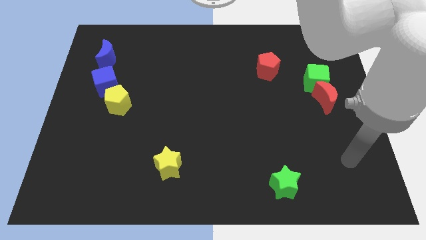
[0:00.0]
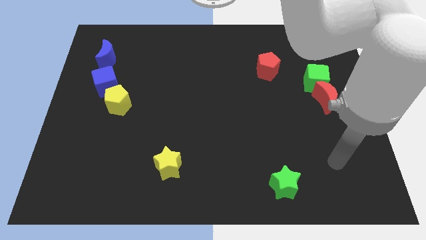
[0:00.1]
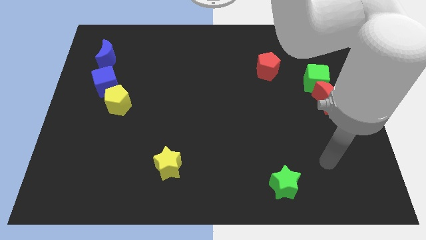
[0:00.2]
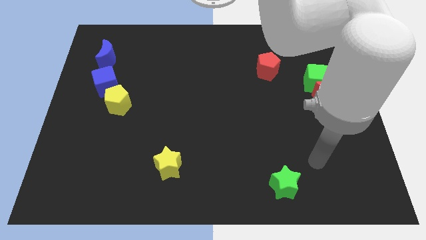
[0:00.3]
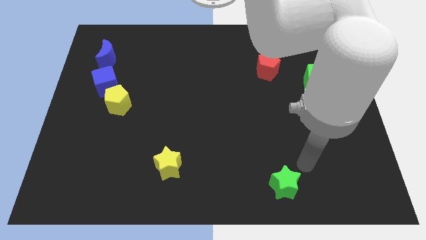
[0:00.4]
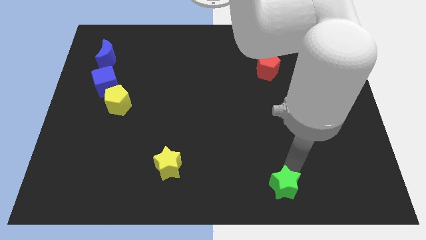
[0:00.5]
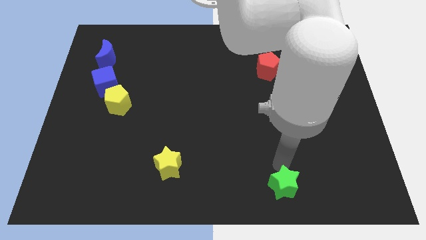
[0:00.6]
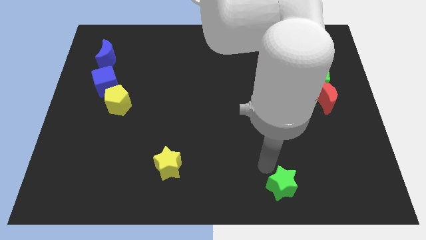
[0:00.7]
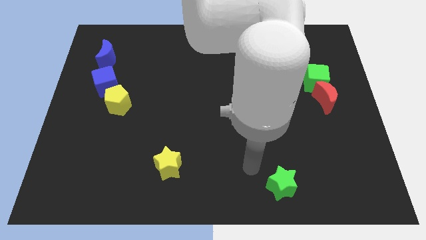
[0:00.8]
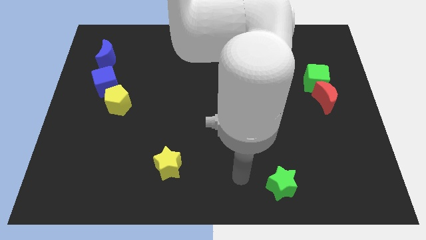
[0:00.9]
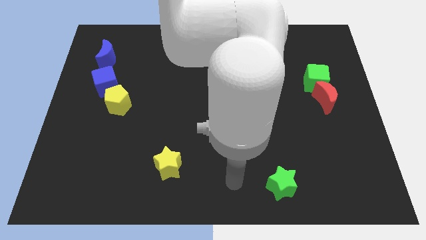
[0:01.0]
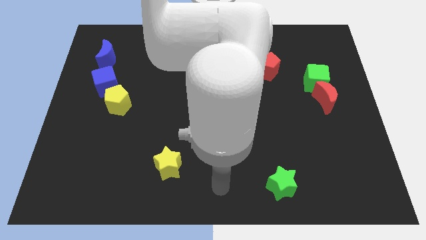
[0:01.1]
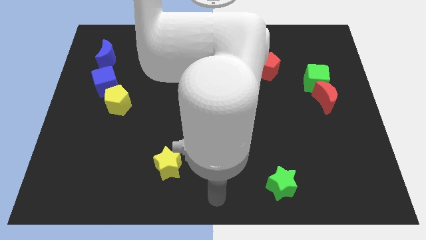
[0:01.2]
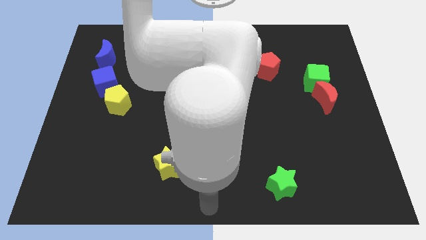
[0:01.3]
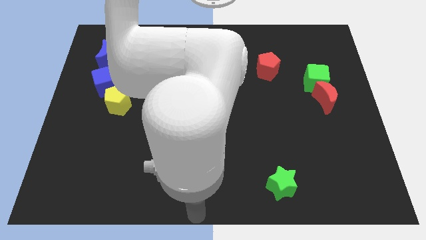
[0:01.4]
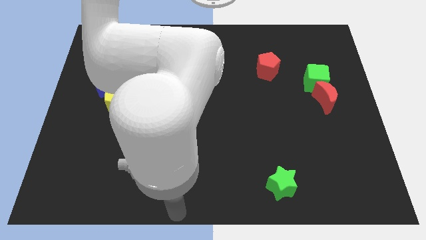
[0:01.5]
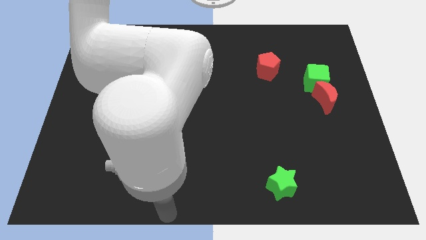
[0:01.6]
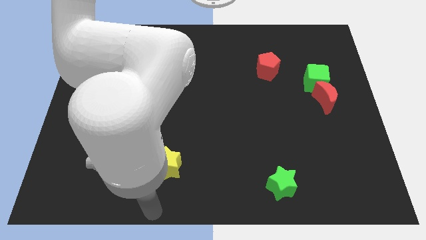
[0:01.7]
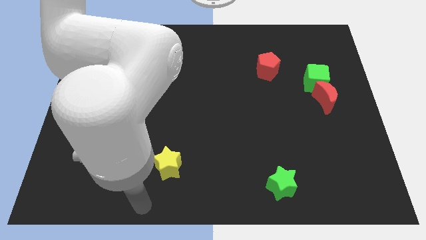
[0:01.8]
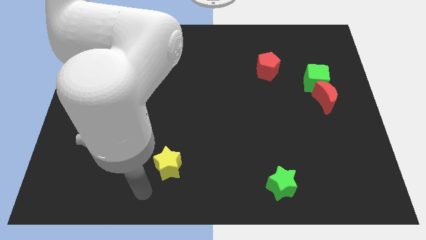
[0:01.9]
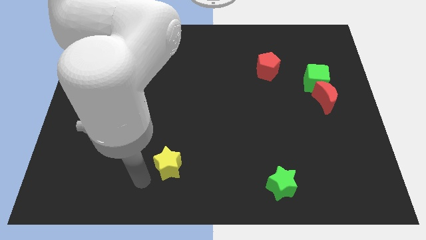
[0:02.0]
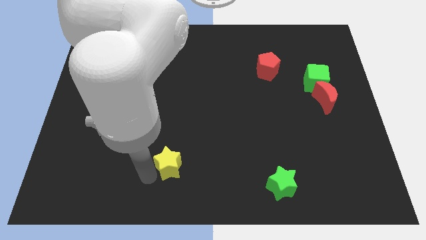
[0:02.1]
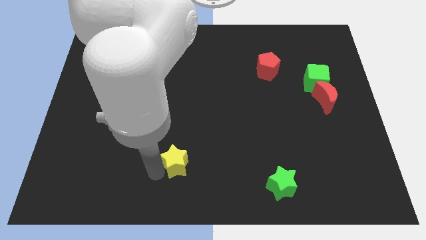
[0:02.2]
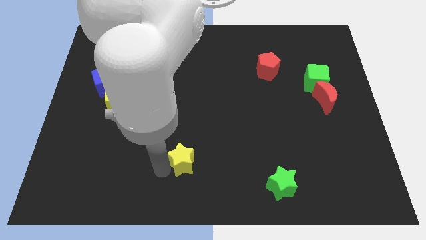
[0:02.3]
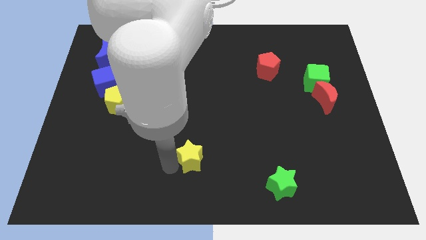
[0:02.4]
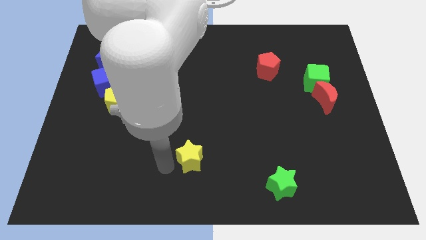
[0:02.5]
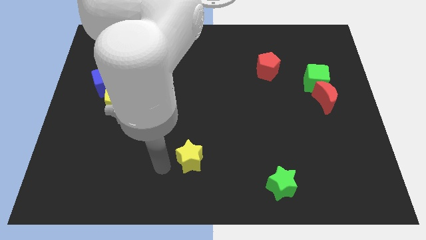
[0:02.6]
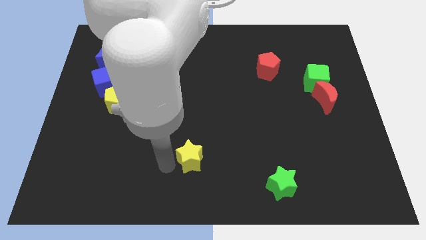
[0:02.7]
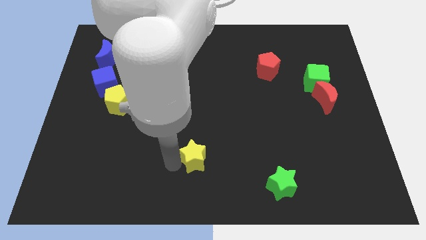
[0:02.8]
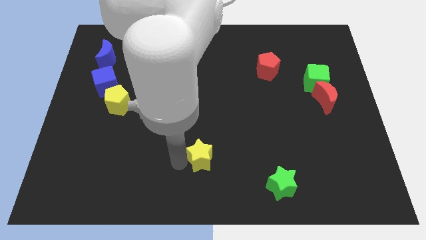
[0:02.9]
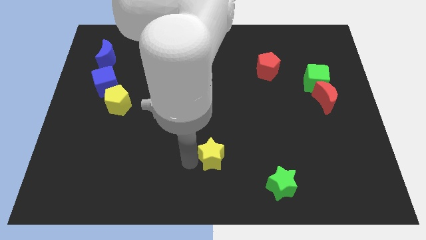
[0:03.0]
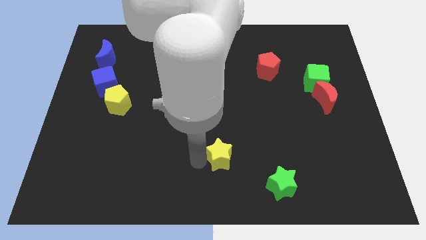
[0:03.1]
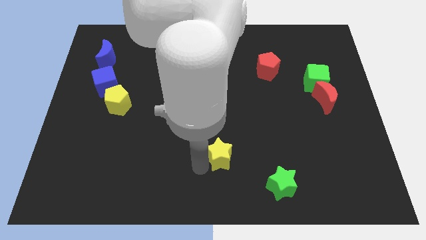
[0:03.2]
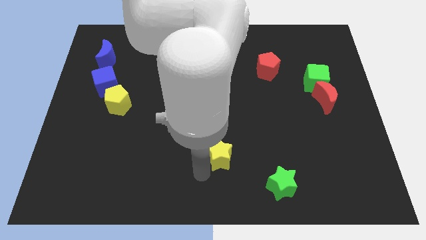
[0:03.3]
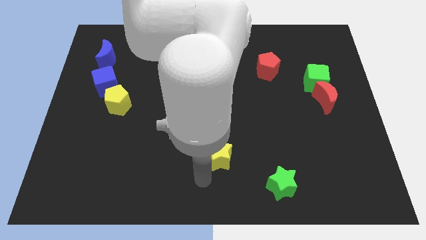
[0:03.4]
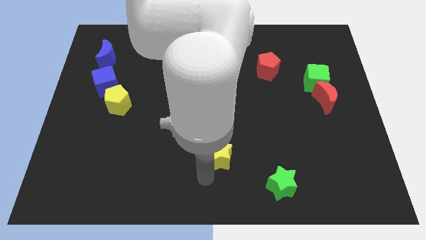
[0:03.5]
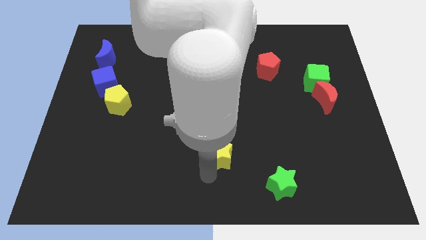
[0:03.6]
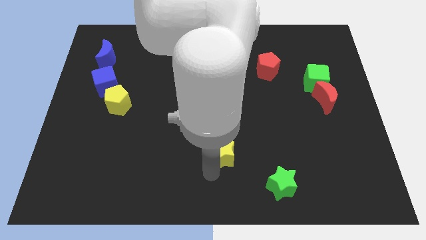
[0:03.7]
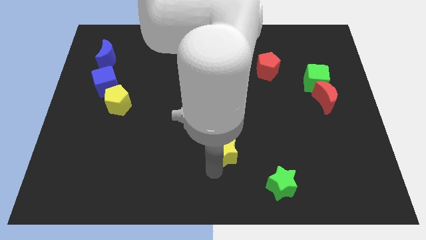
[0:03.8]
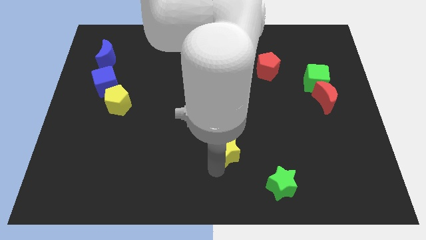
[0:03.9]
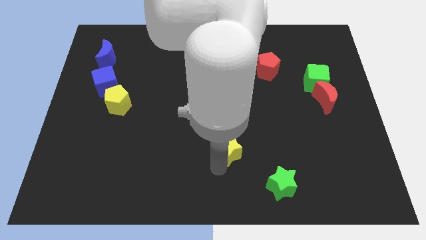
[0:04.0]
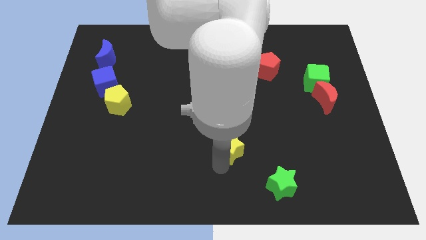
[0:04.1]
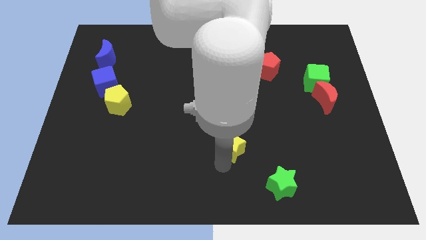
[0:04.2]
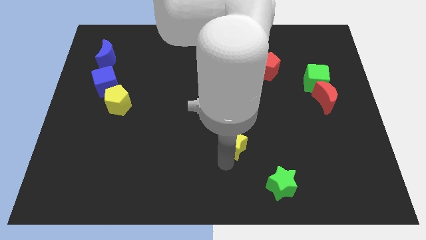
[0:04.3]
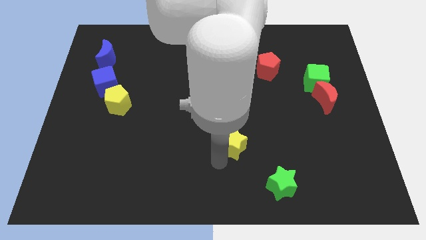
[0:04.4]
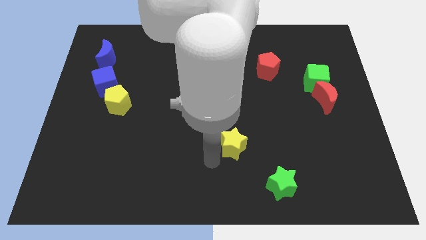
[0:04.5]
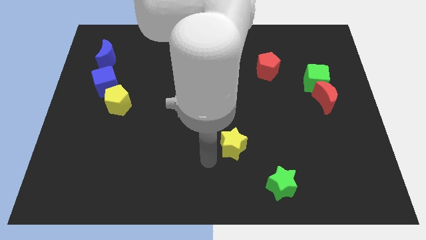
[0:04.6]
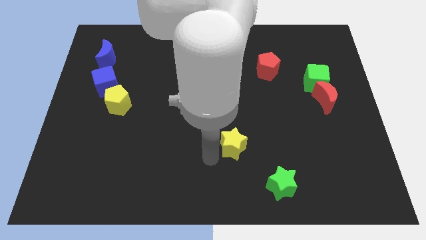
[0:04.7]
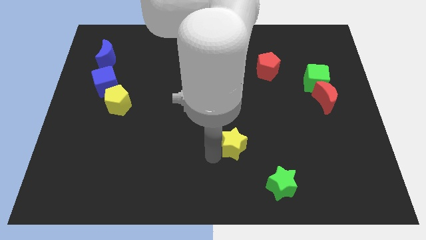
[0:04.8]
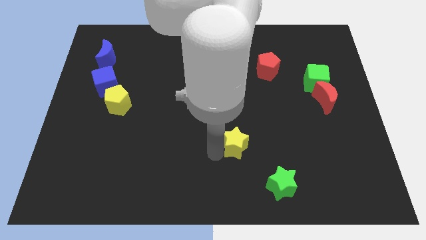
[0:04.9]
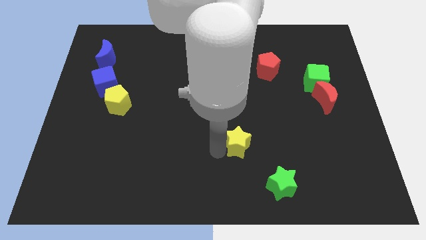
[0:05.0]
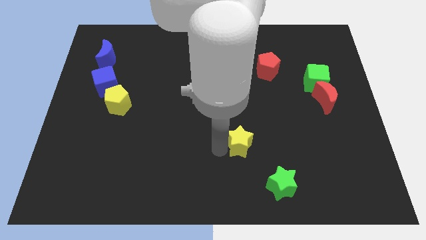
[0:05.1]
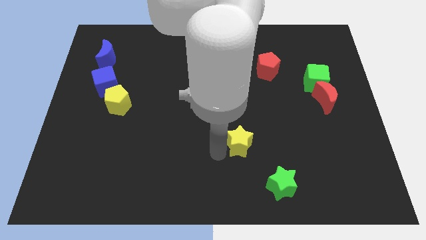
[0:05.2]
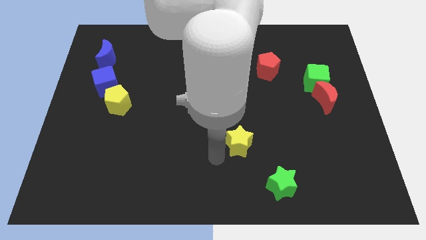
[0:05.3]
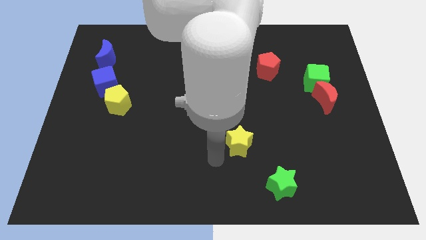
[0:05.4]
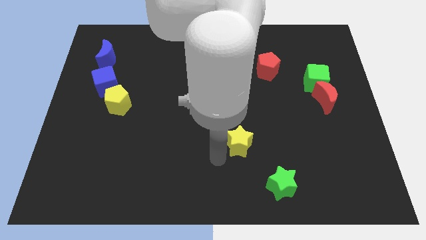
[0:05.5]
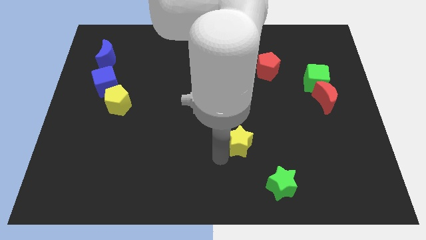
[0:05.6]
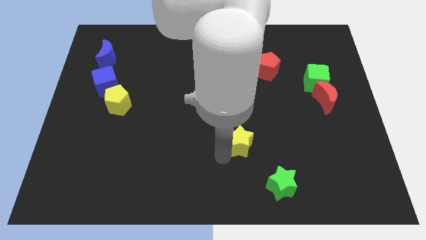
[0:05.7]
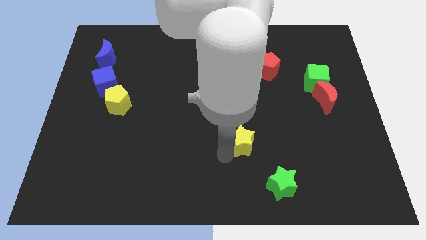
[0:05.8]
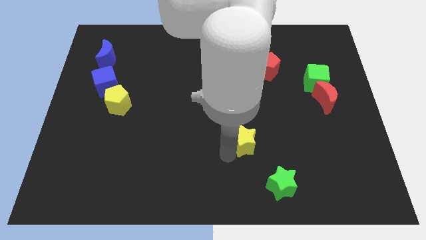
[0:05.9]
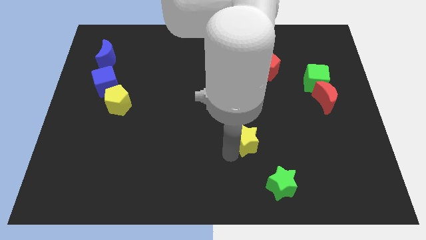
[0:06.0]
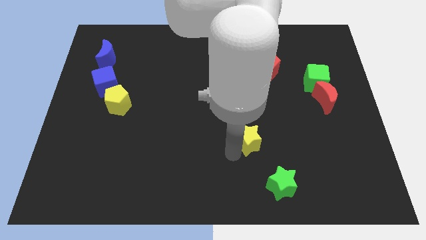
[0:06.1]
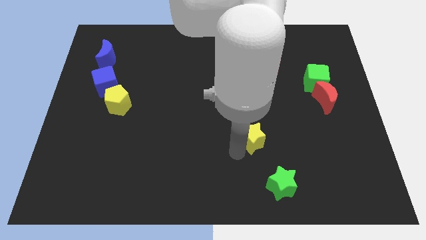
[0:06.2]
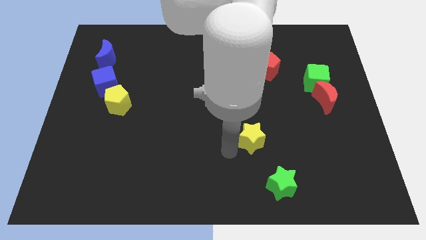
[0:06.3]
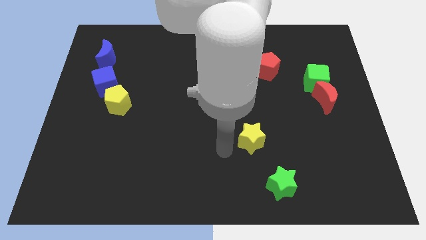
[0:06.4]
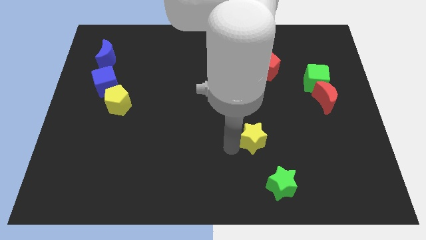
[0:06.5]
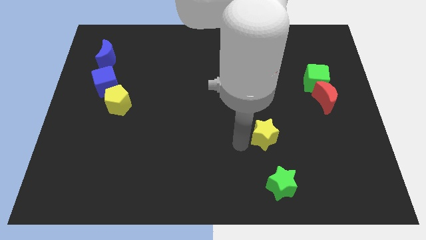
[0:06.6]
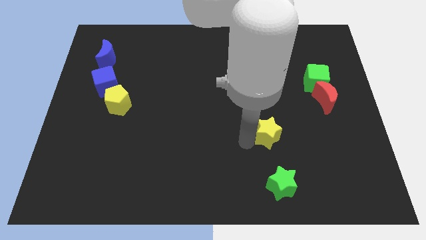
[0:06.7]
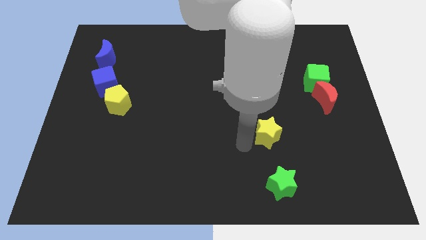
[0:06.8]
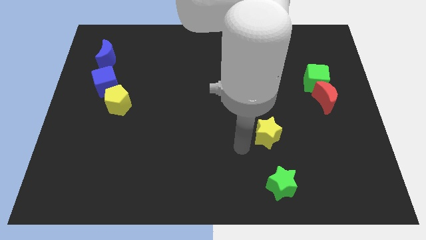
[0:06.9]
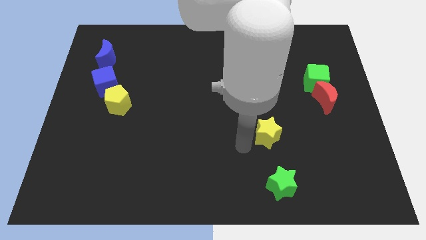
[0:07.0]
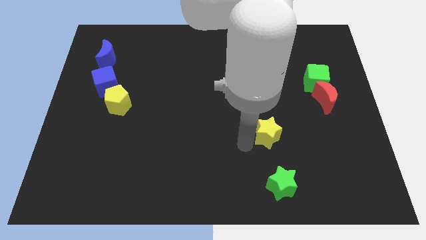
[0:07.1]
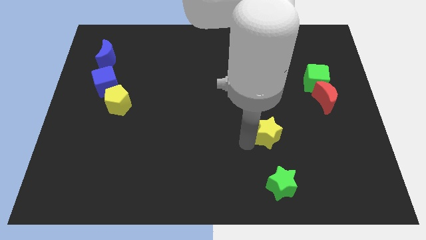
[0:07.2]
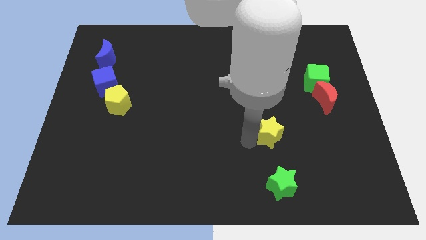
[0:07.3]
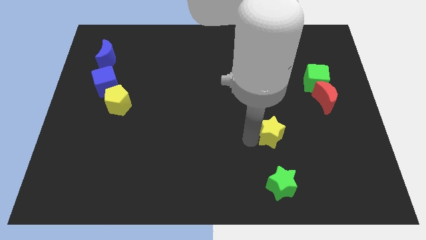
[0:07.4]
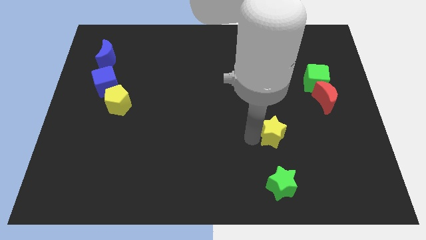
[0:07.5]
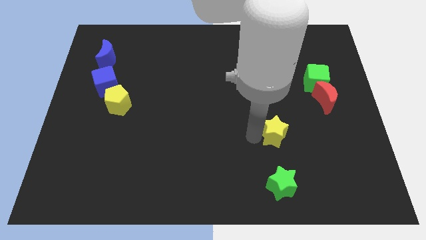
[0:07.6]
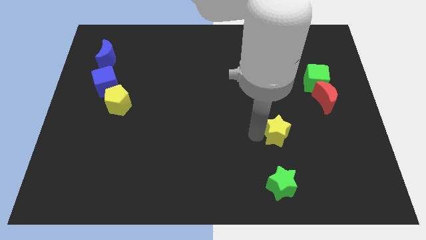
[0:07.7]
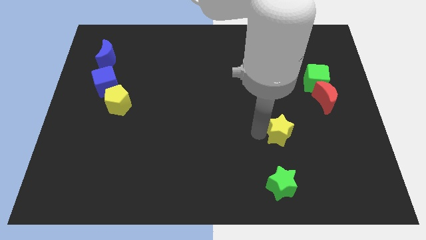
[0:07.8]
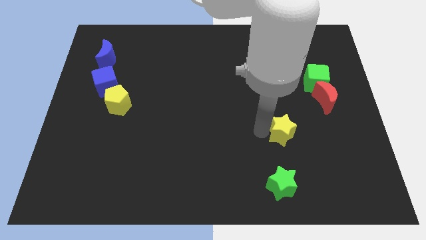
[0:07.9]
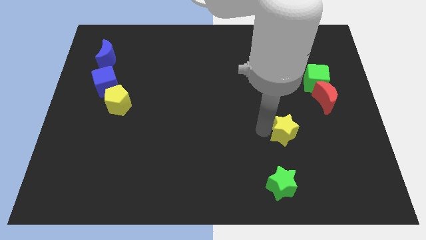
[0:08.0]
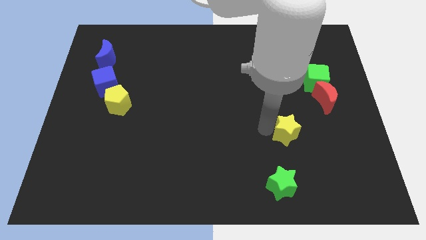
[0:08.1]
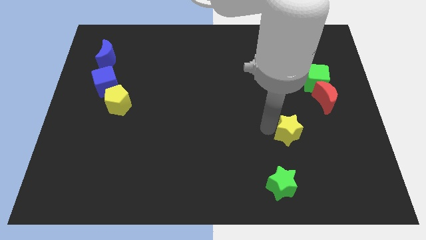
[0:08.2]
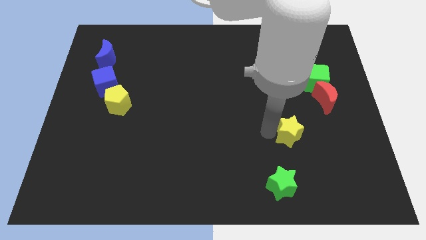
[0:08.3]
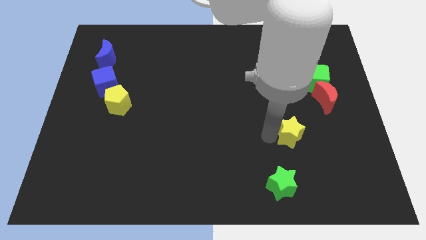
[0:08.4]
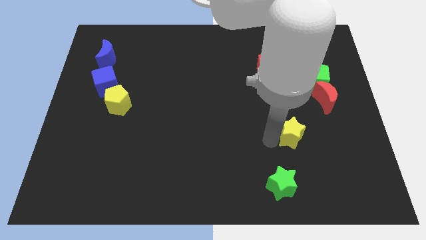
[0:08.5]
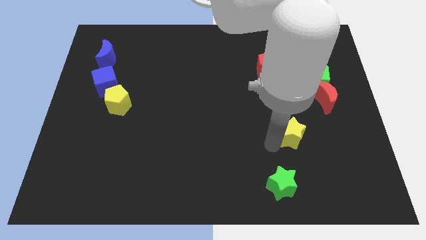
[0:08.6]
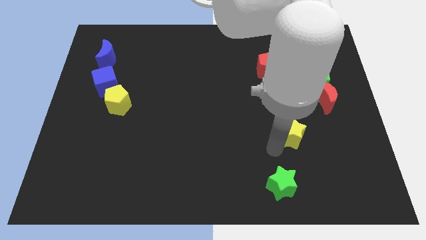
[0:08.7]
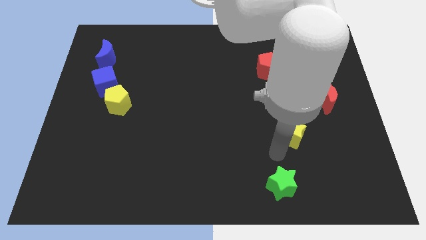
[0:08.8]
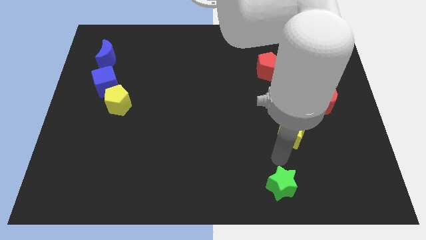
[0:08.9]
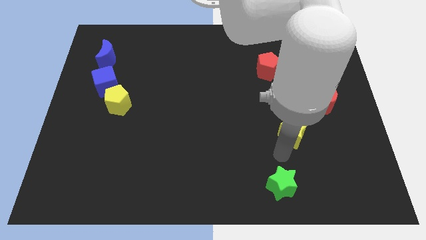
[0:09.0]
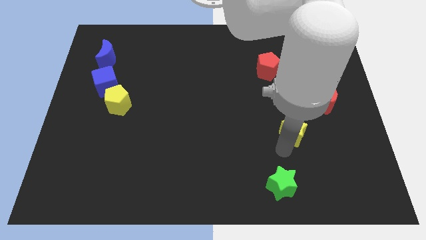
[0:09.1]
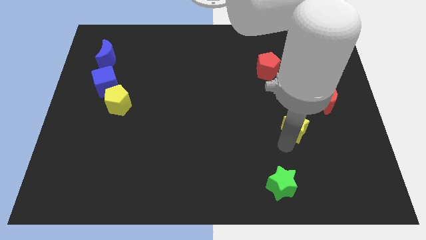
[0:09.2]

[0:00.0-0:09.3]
slide the yellow star to the bottom left side of the red moon
